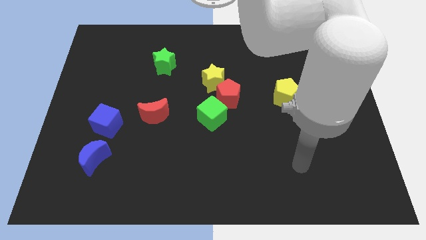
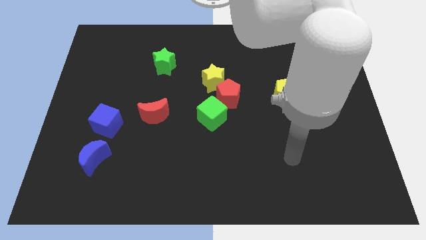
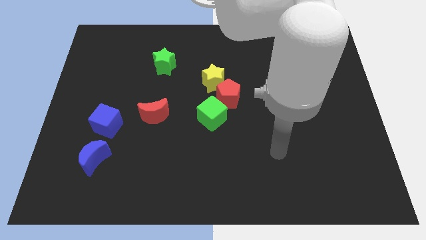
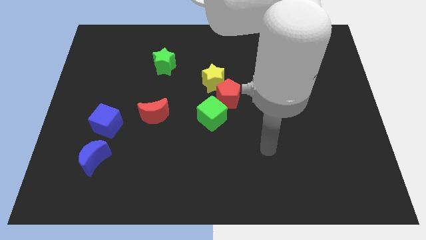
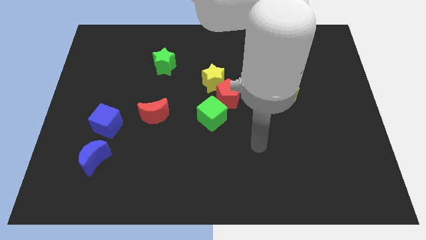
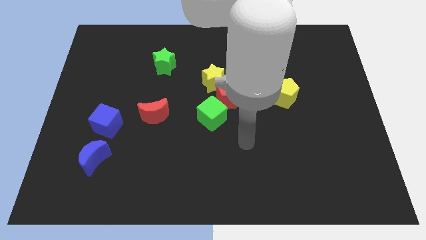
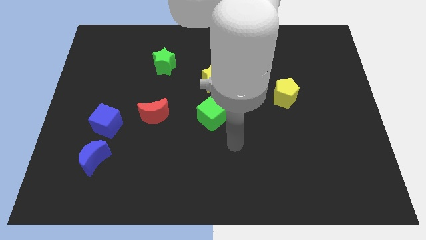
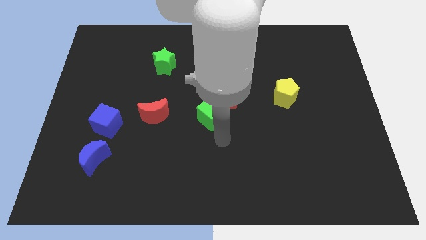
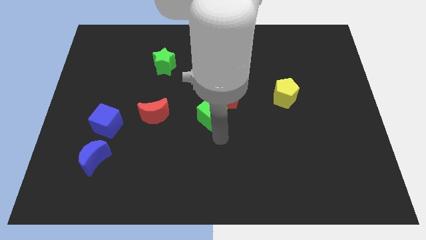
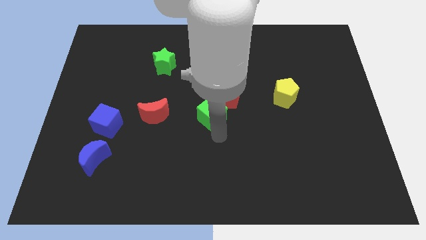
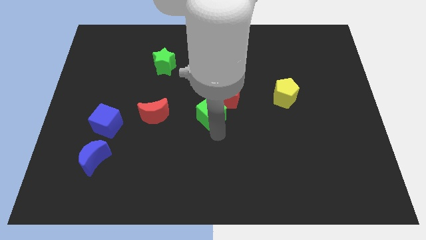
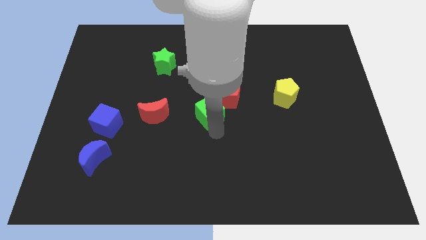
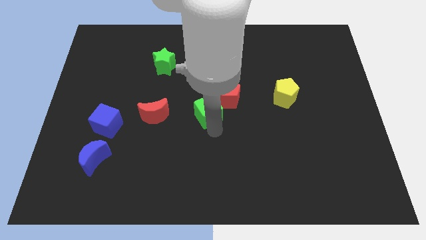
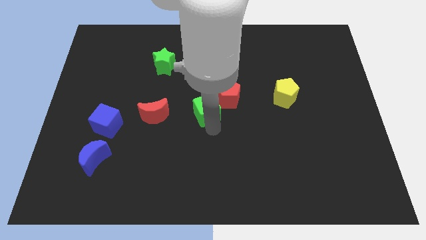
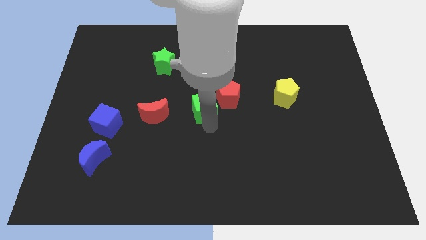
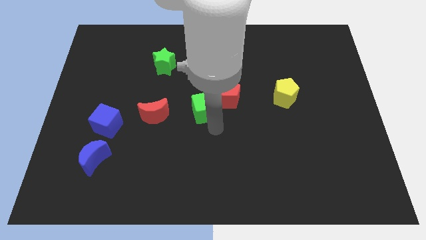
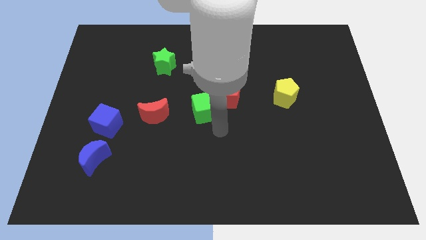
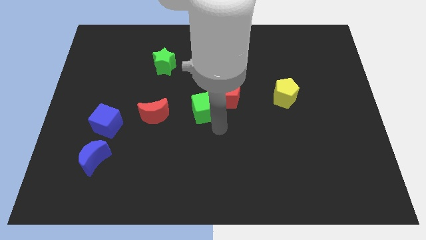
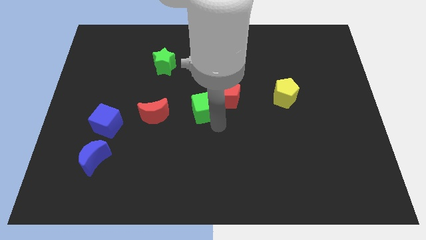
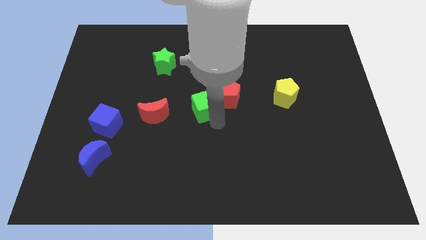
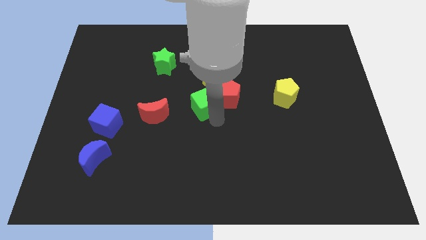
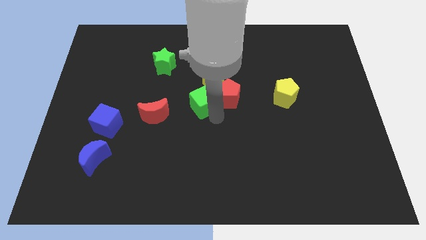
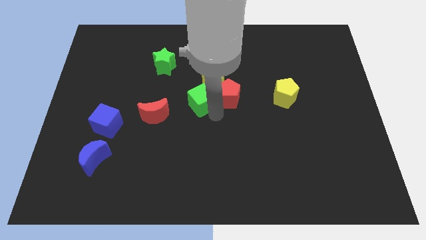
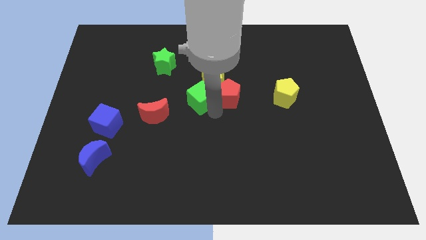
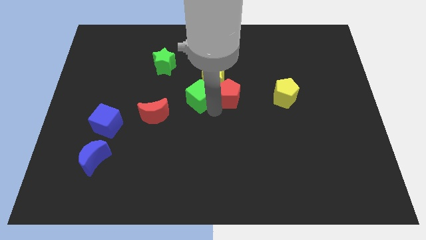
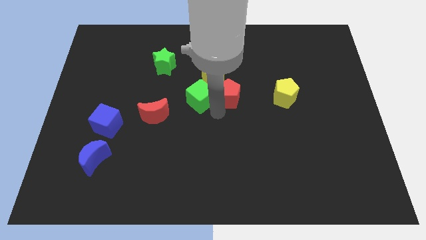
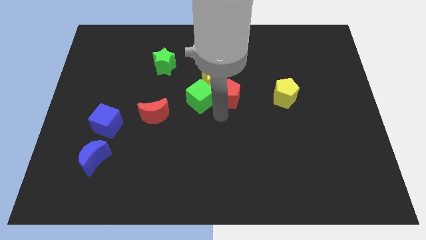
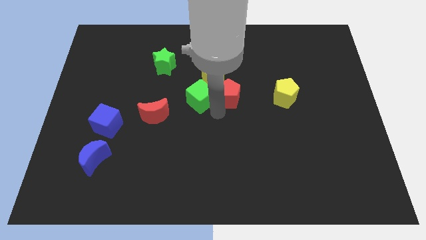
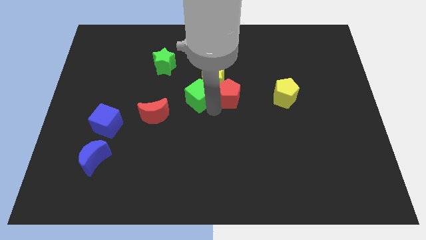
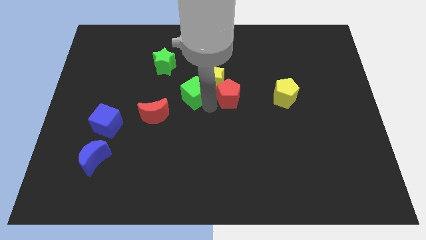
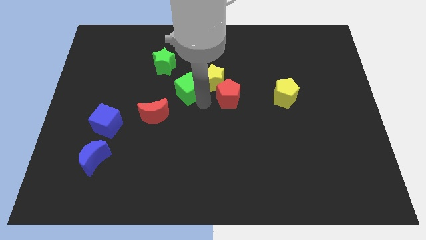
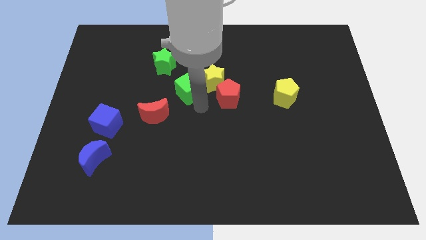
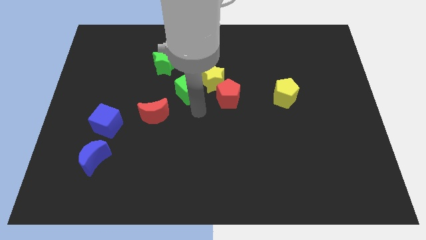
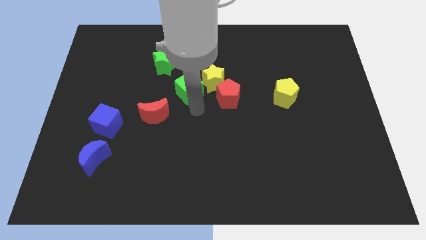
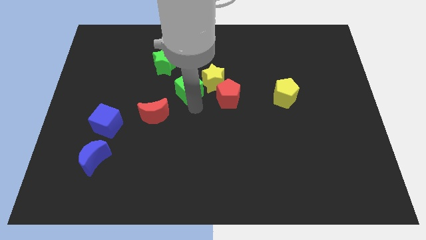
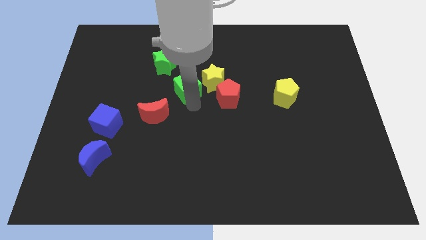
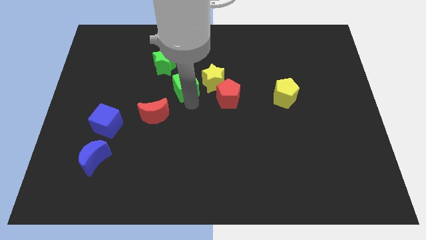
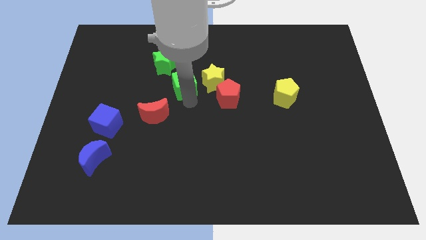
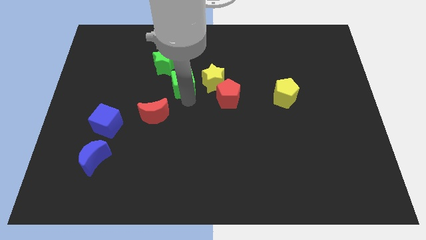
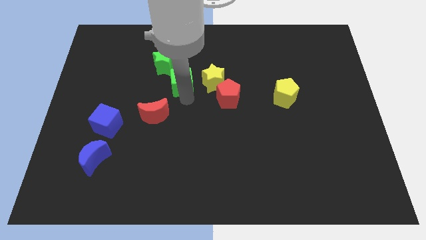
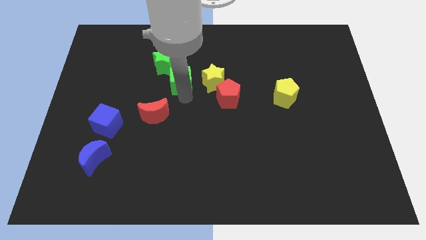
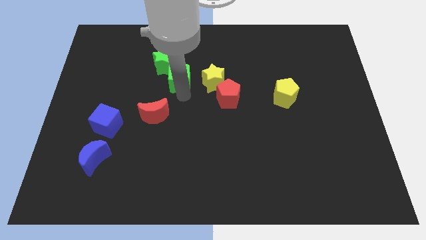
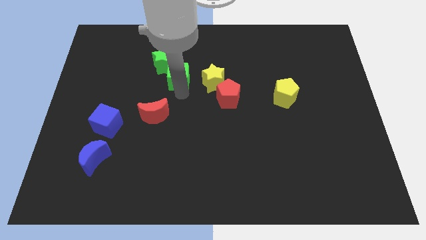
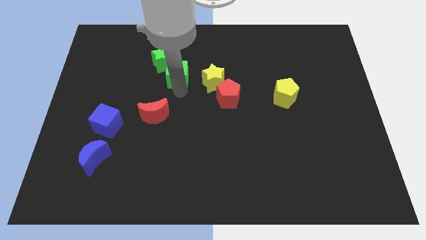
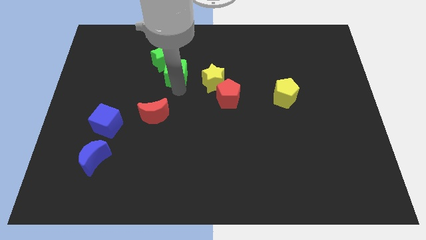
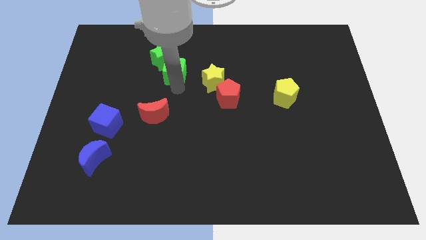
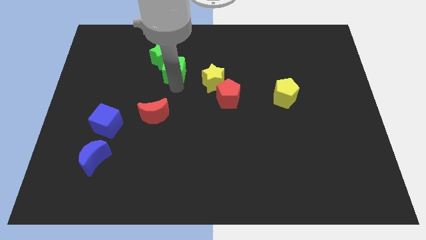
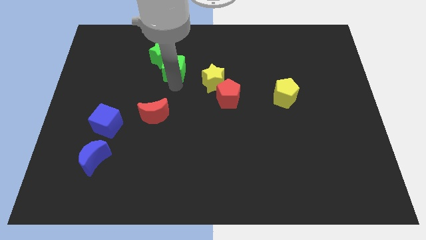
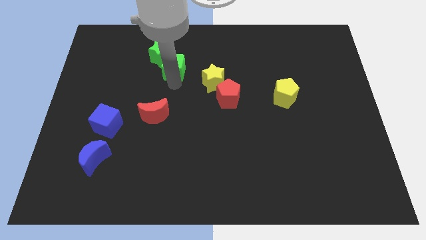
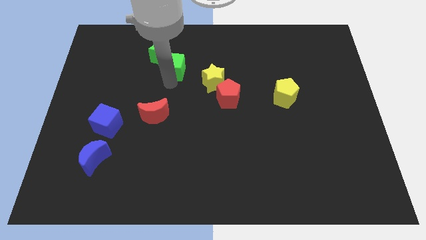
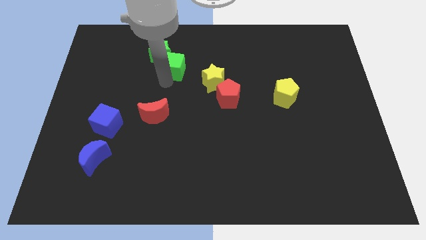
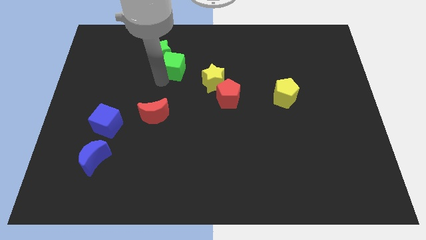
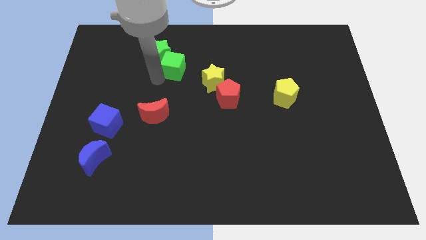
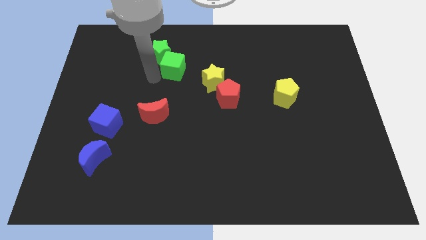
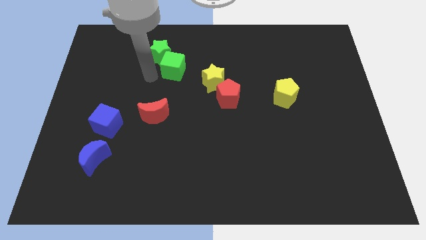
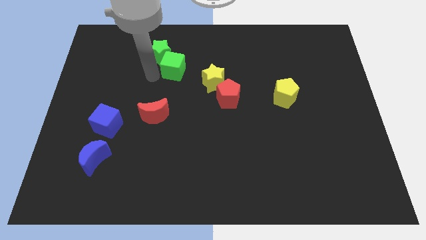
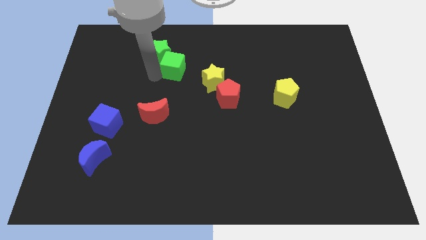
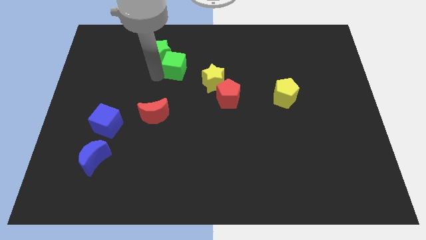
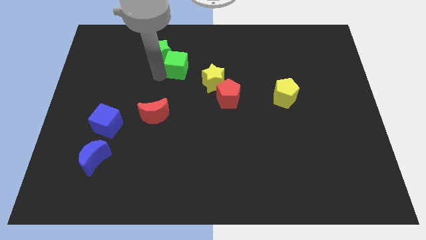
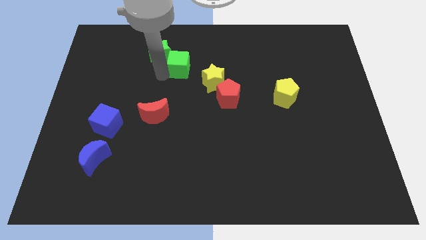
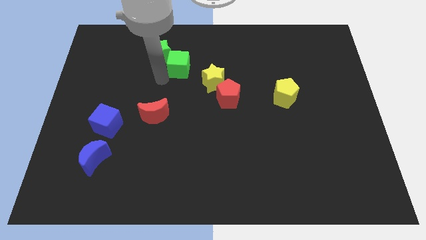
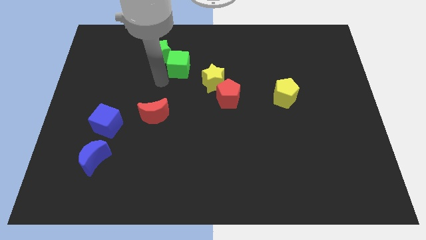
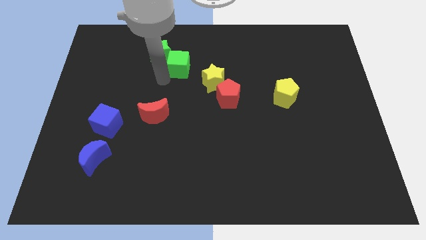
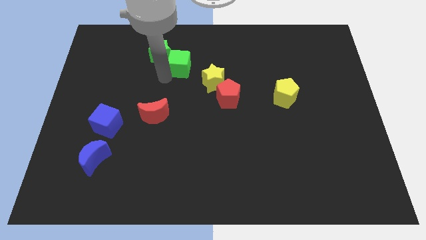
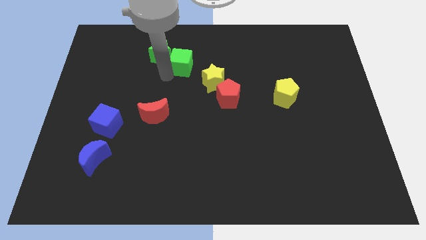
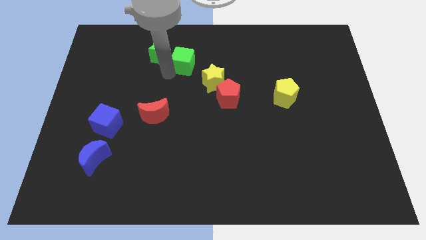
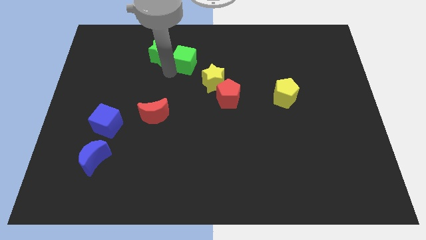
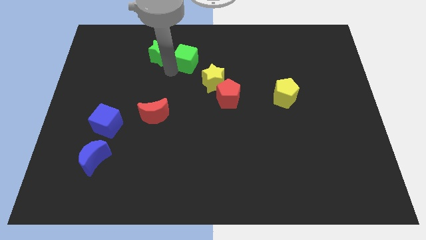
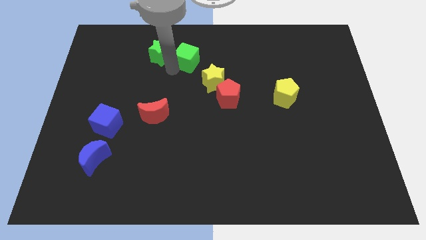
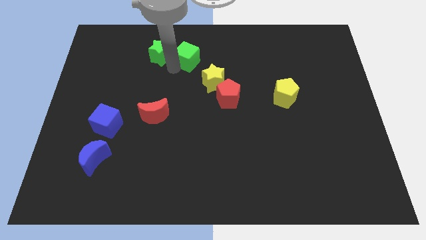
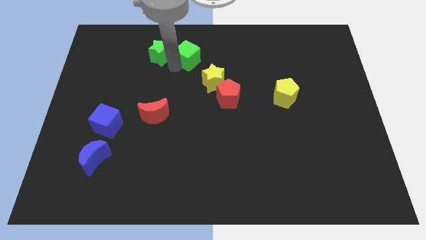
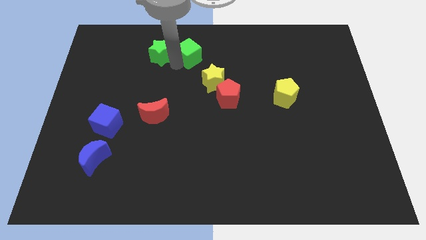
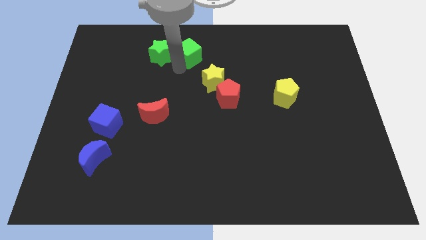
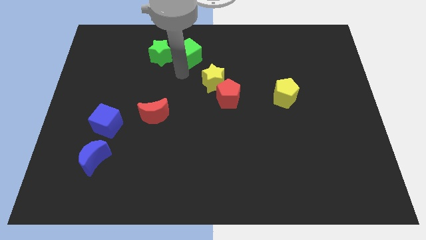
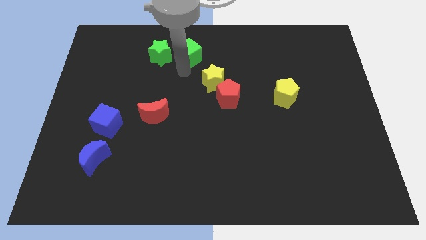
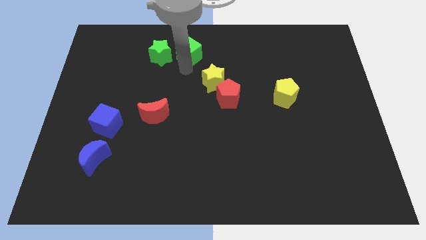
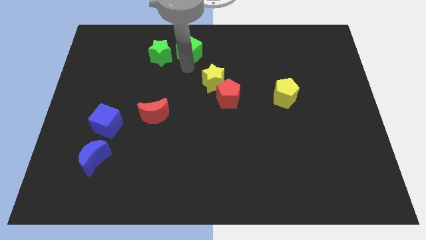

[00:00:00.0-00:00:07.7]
put the green cube to the top side
